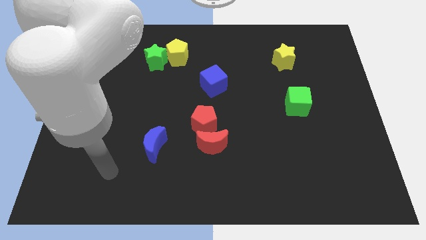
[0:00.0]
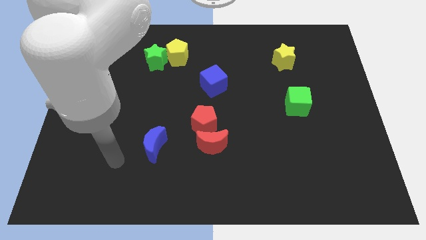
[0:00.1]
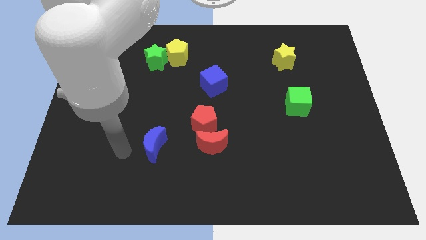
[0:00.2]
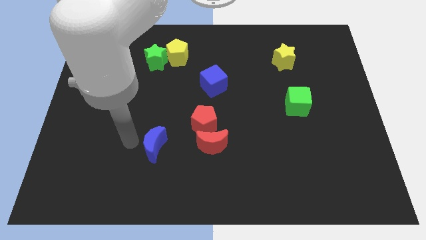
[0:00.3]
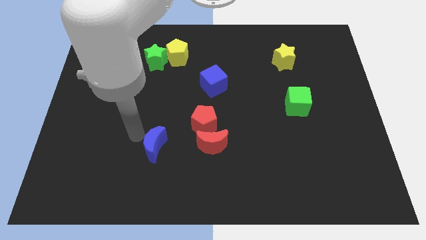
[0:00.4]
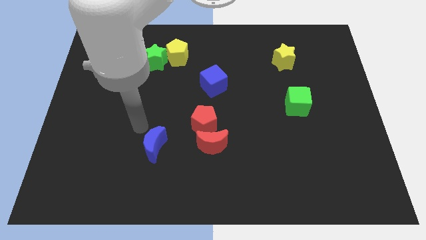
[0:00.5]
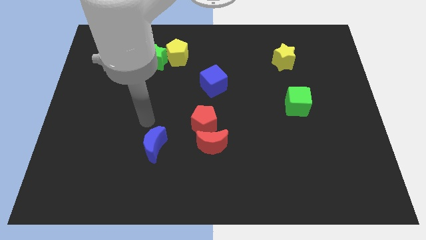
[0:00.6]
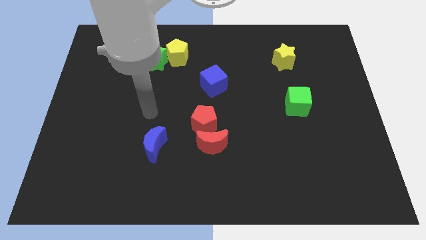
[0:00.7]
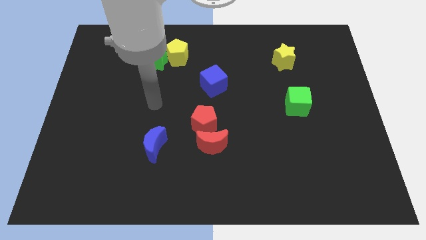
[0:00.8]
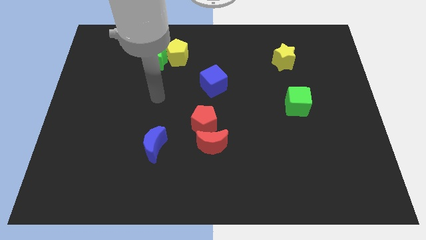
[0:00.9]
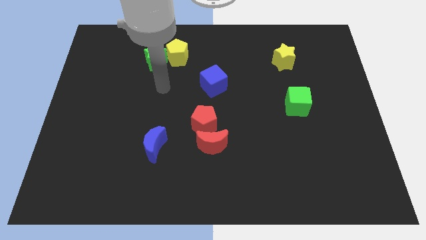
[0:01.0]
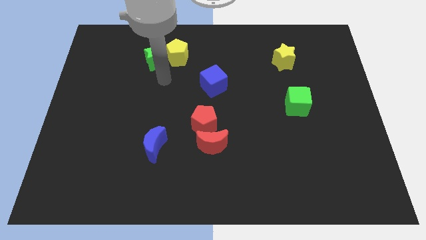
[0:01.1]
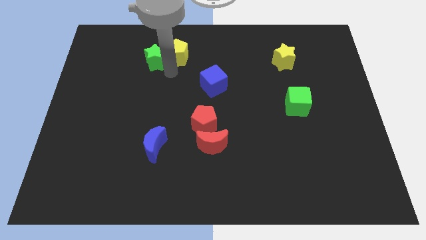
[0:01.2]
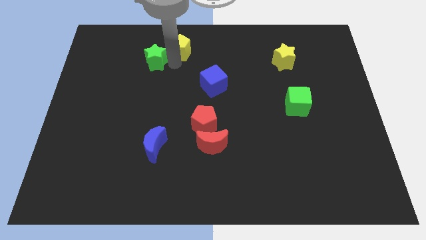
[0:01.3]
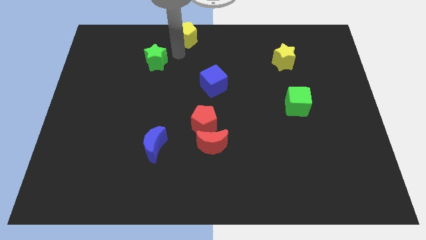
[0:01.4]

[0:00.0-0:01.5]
separate the green star from the yellow pentagon

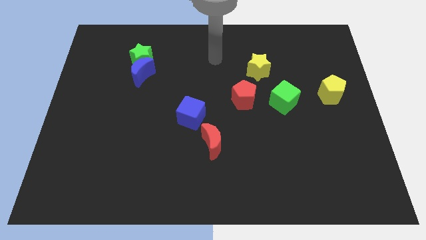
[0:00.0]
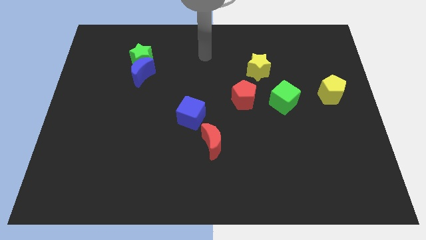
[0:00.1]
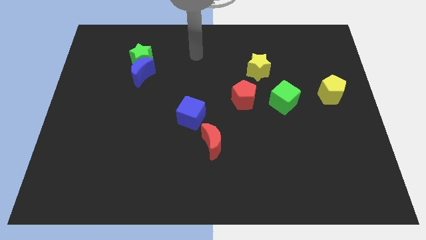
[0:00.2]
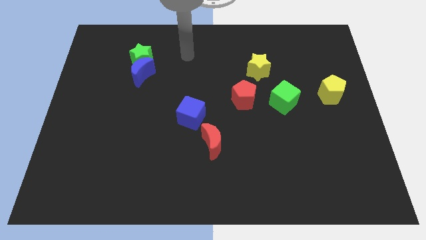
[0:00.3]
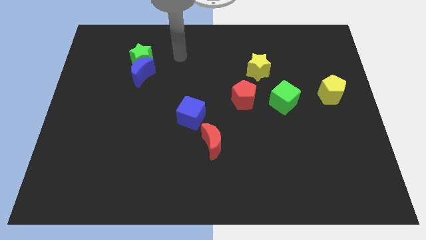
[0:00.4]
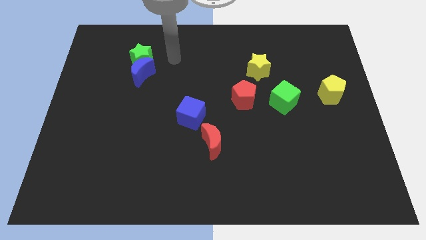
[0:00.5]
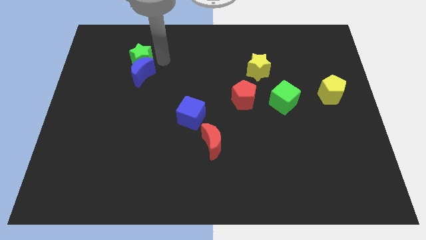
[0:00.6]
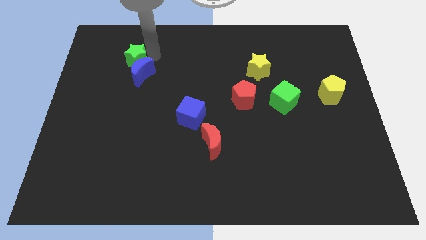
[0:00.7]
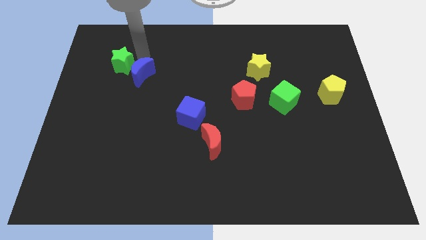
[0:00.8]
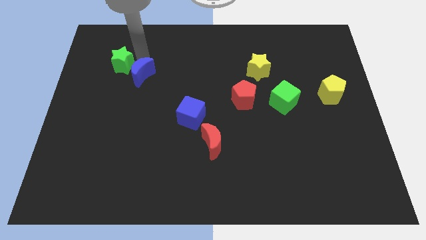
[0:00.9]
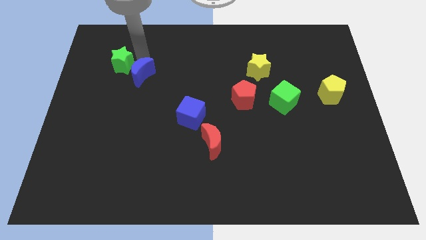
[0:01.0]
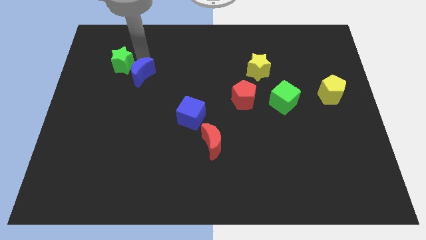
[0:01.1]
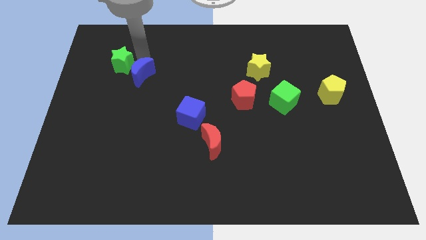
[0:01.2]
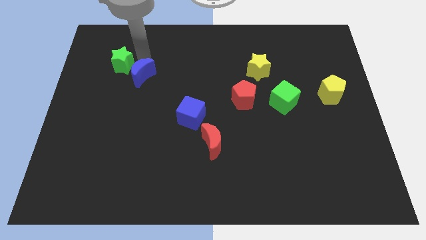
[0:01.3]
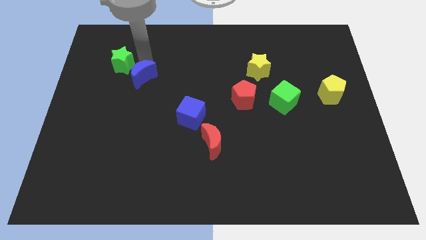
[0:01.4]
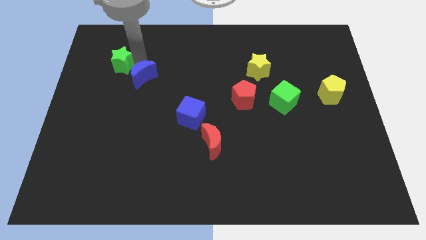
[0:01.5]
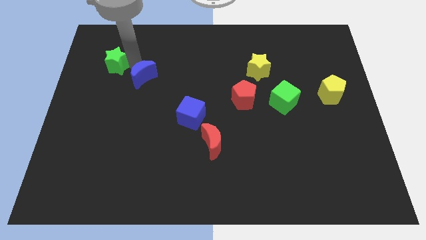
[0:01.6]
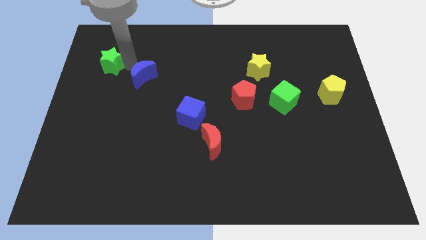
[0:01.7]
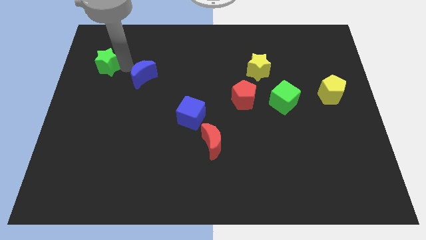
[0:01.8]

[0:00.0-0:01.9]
pull the blue moon apart from the green star

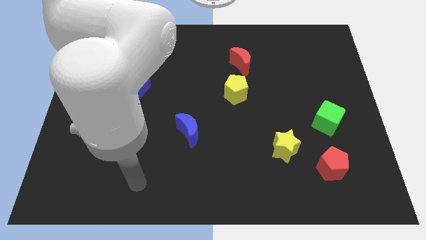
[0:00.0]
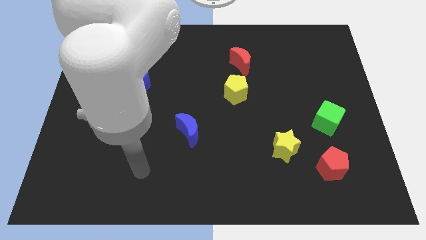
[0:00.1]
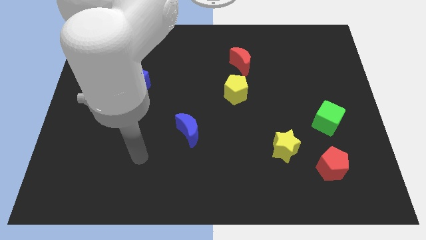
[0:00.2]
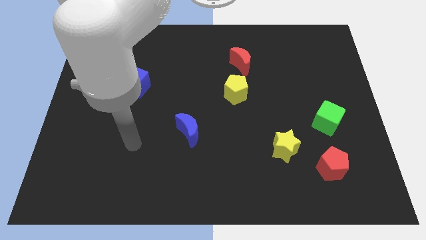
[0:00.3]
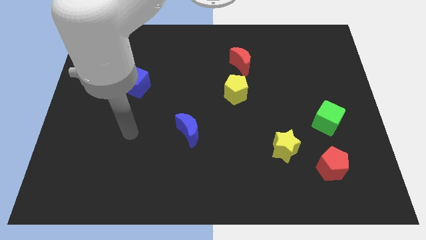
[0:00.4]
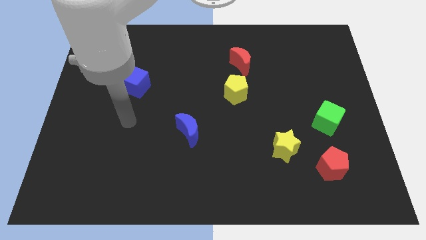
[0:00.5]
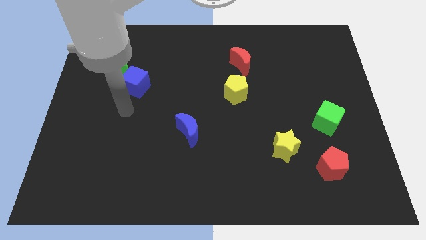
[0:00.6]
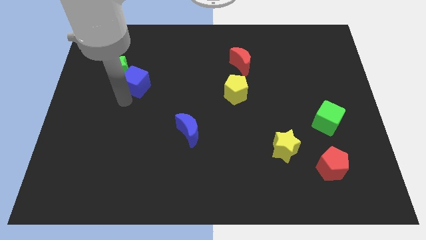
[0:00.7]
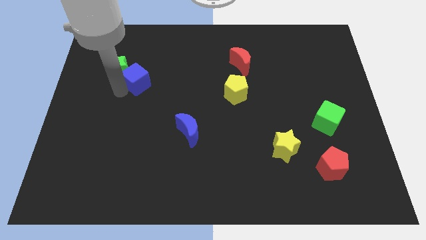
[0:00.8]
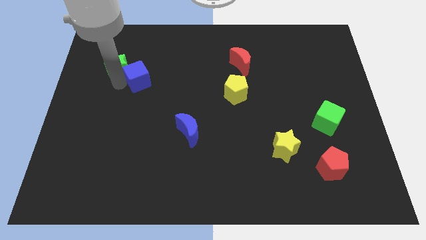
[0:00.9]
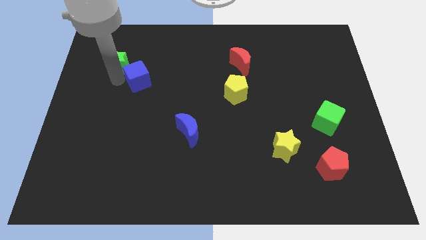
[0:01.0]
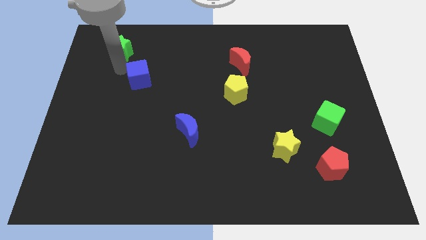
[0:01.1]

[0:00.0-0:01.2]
pull the blue cube apart from the green star

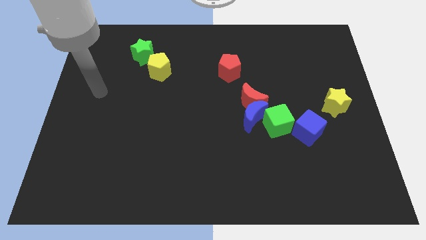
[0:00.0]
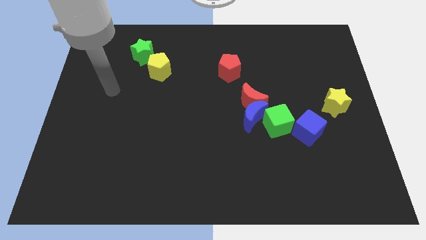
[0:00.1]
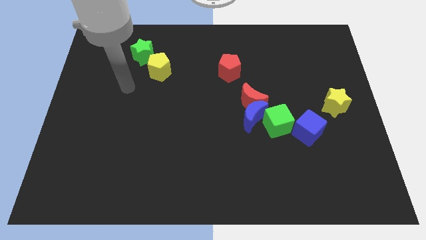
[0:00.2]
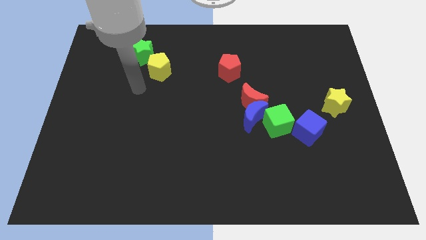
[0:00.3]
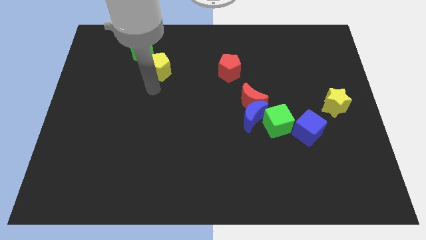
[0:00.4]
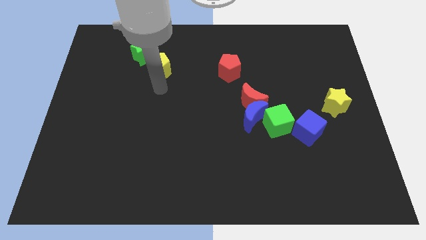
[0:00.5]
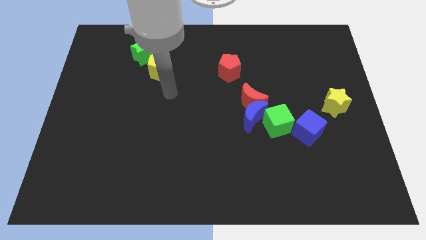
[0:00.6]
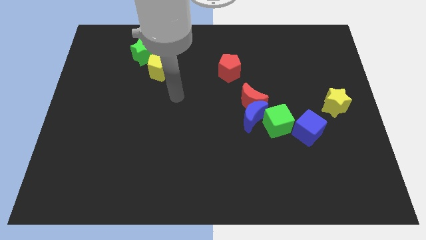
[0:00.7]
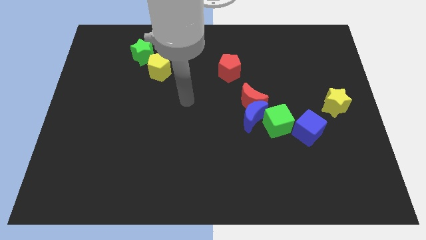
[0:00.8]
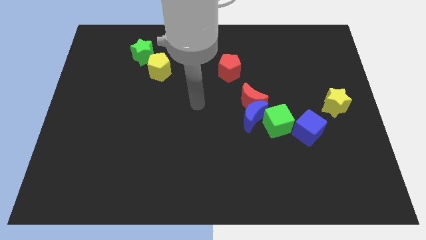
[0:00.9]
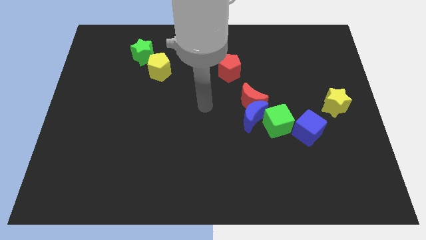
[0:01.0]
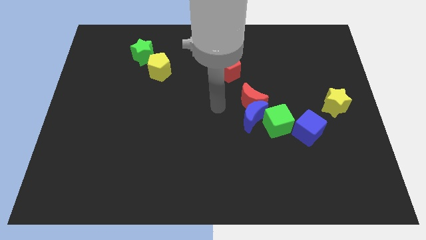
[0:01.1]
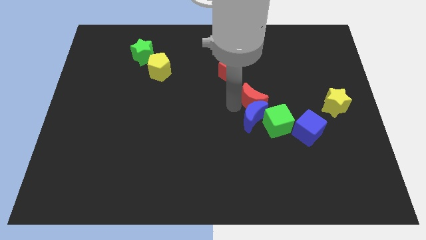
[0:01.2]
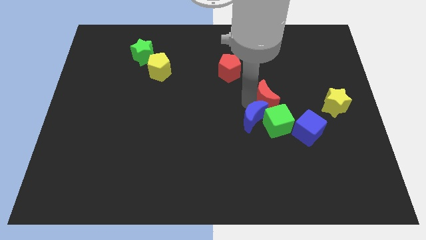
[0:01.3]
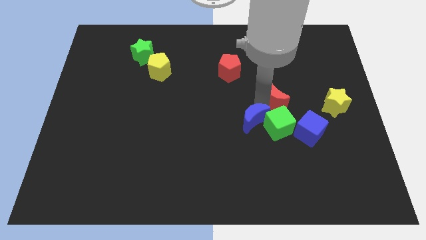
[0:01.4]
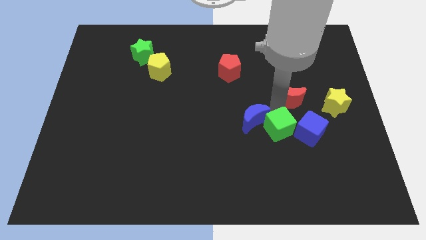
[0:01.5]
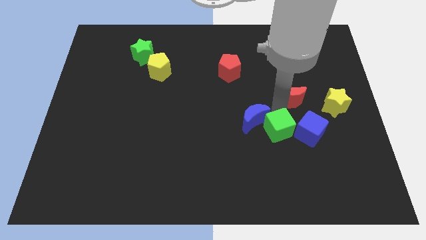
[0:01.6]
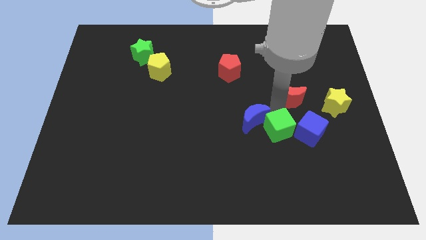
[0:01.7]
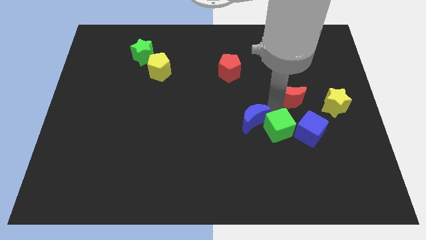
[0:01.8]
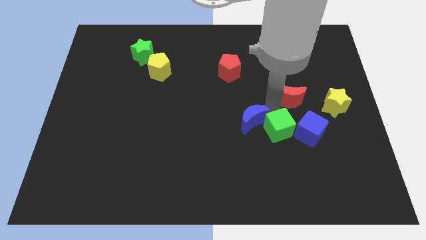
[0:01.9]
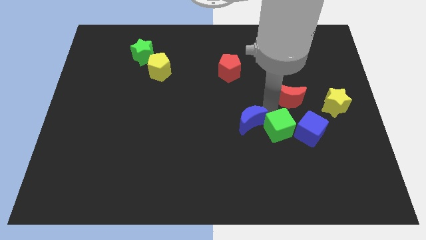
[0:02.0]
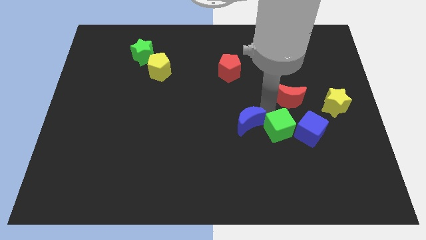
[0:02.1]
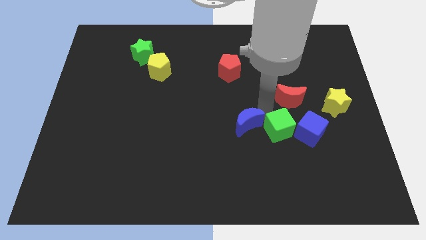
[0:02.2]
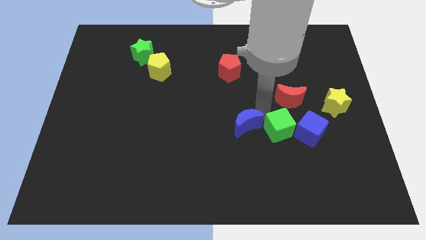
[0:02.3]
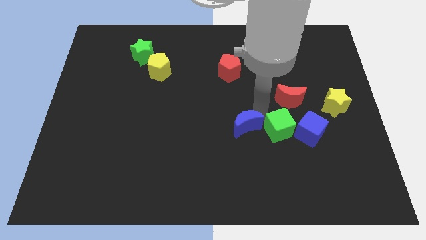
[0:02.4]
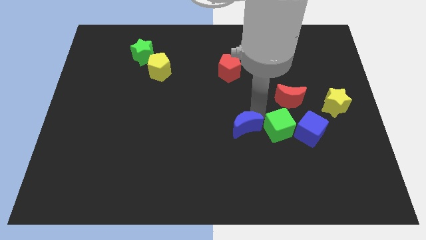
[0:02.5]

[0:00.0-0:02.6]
pull the blue moon apart from the red moon and green cube

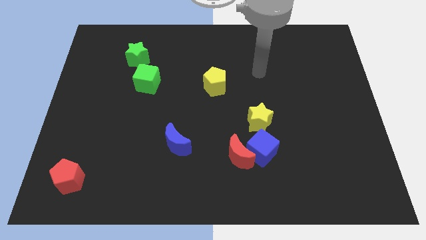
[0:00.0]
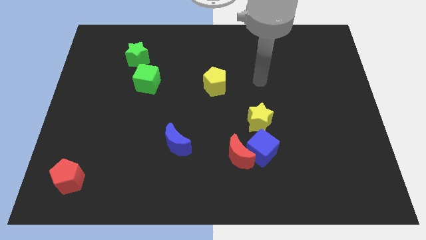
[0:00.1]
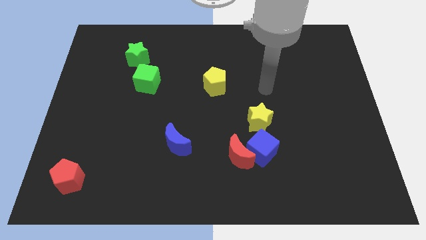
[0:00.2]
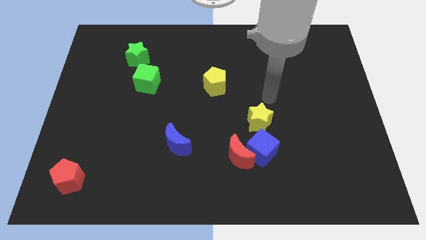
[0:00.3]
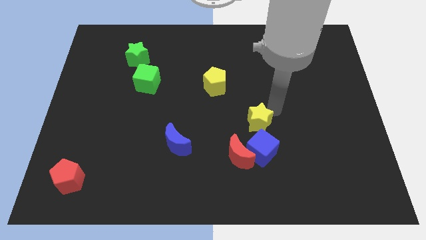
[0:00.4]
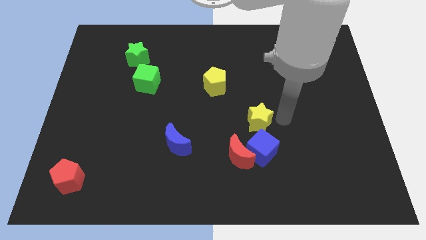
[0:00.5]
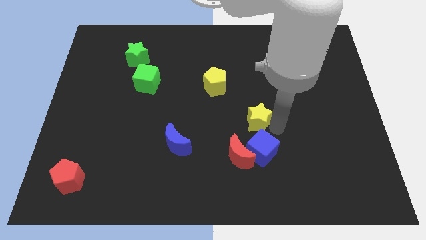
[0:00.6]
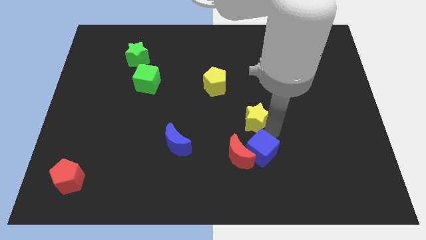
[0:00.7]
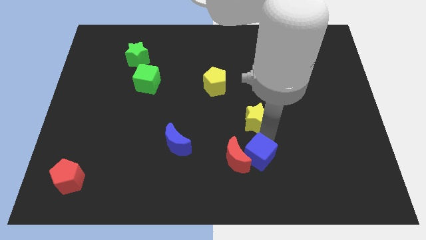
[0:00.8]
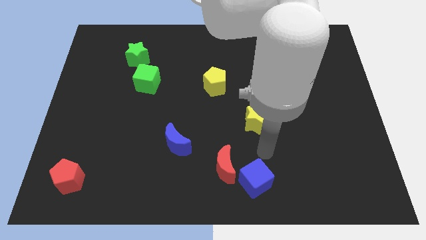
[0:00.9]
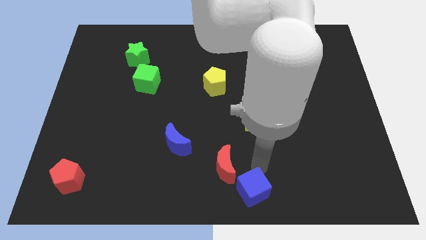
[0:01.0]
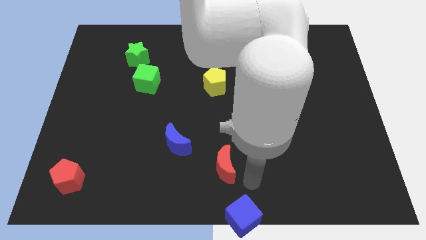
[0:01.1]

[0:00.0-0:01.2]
pull the red moon apart from the blue cube

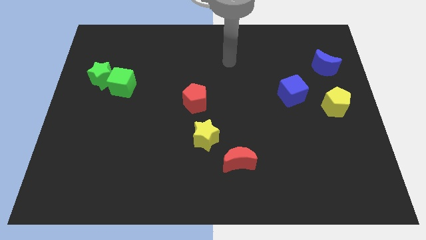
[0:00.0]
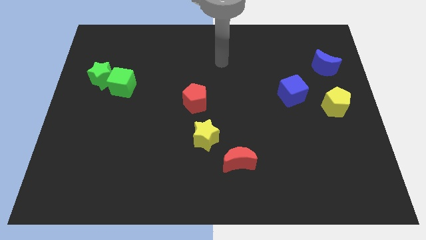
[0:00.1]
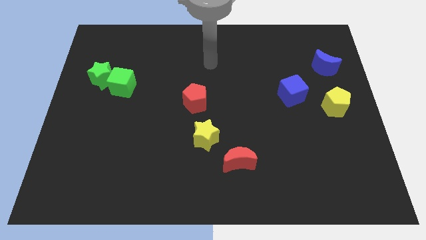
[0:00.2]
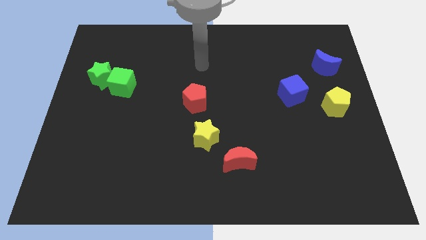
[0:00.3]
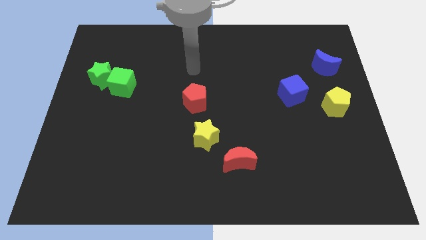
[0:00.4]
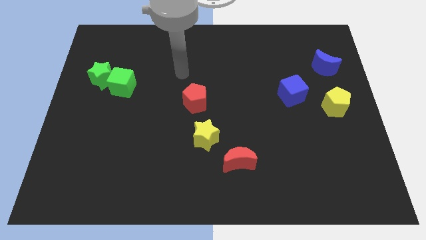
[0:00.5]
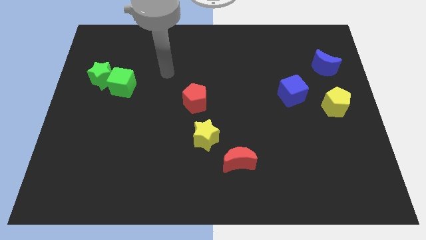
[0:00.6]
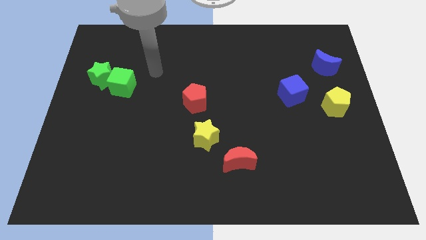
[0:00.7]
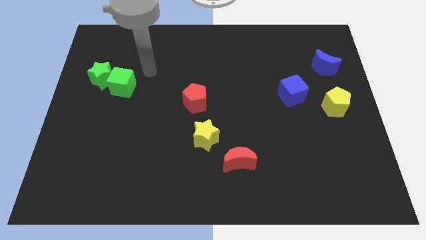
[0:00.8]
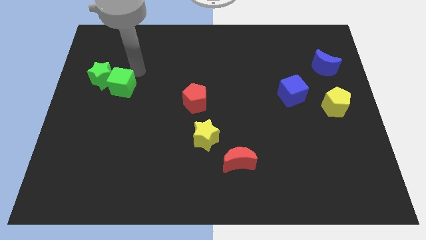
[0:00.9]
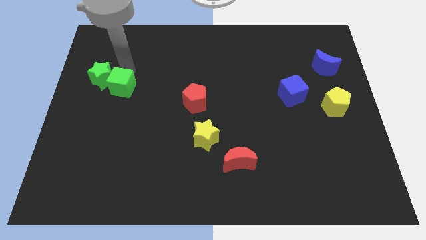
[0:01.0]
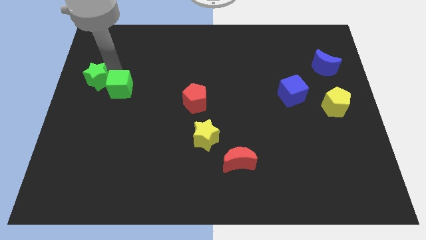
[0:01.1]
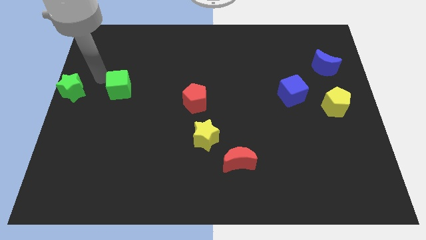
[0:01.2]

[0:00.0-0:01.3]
pull the green cube apart from the green star
